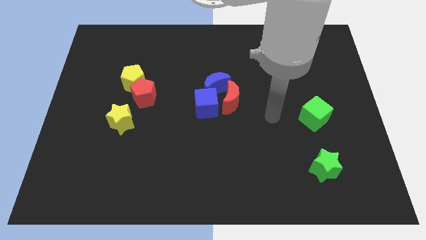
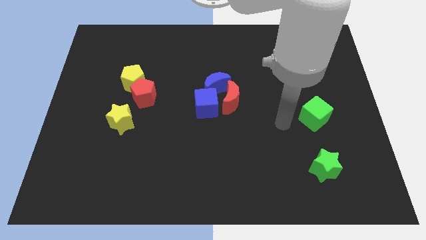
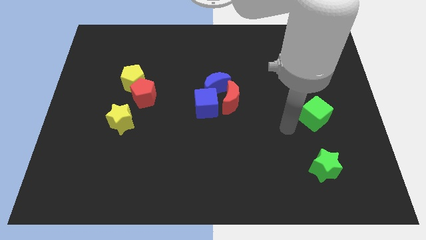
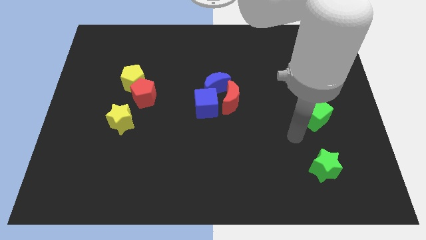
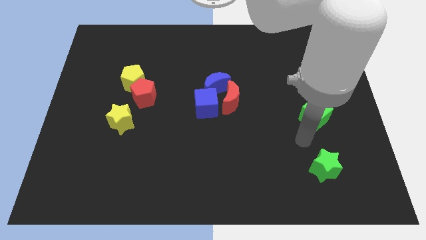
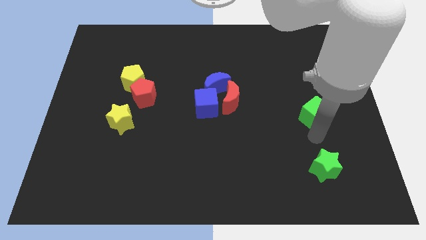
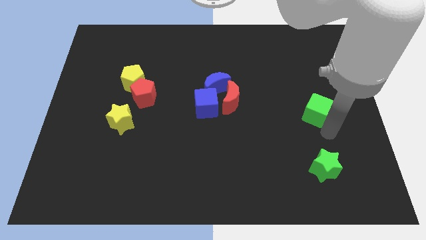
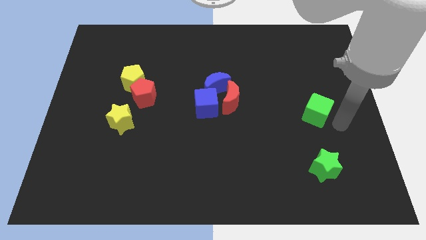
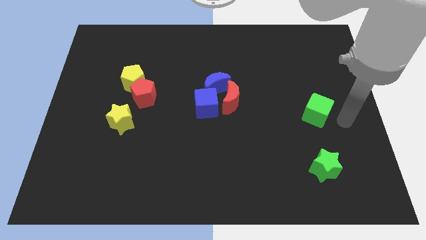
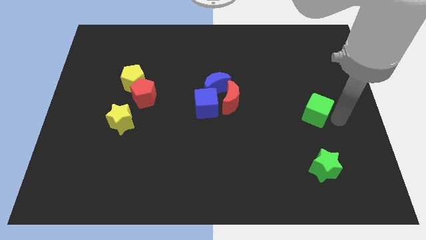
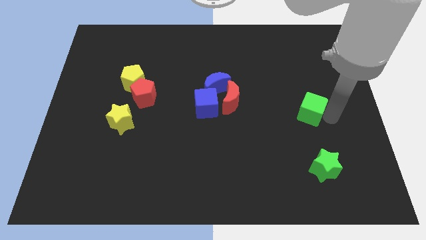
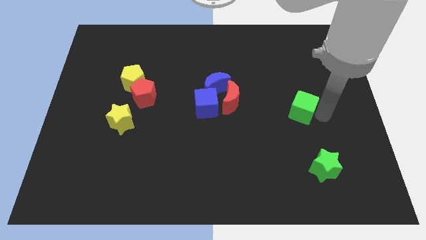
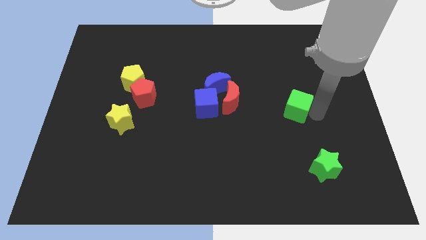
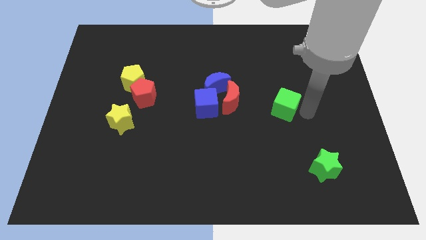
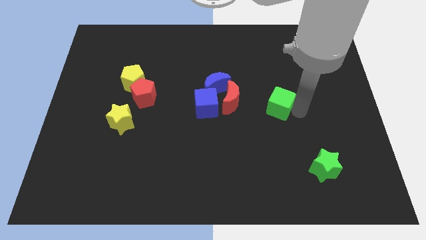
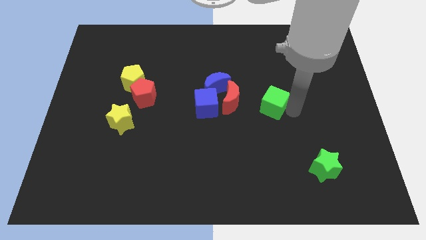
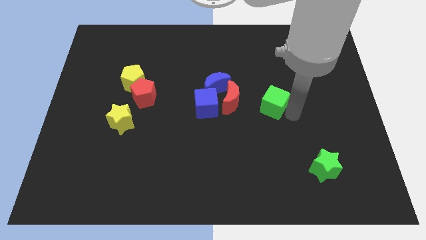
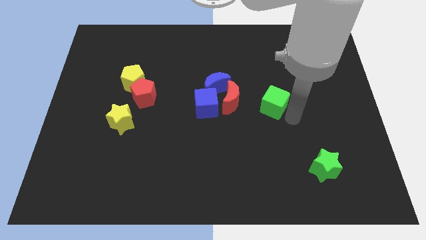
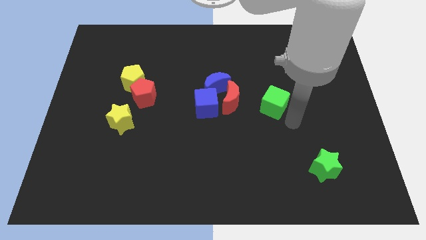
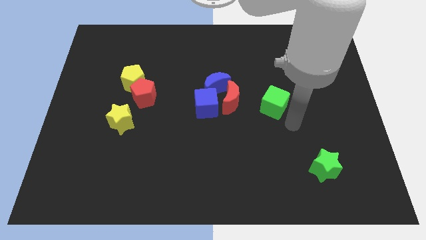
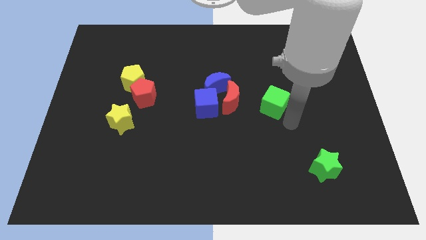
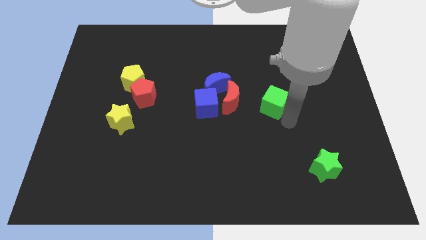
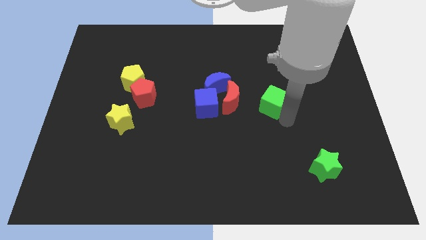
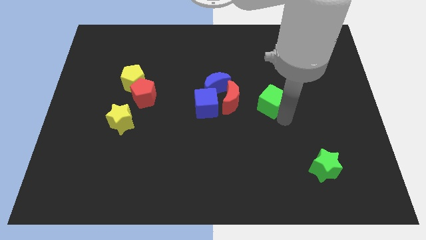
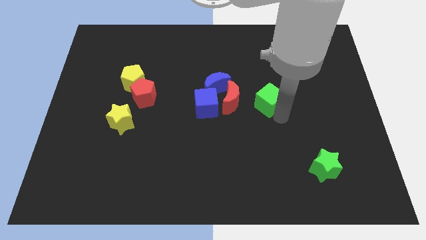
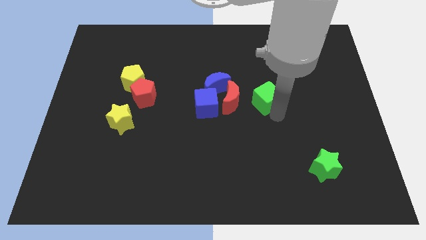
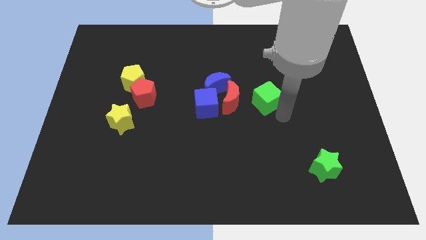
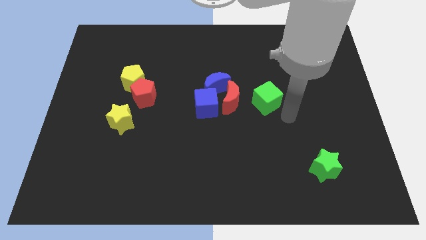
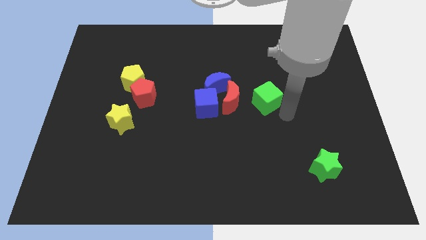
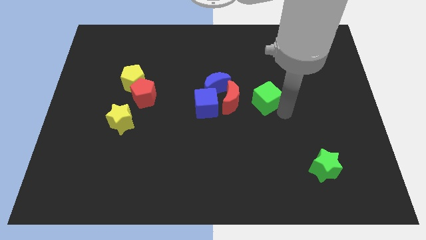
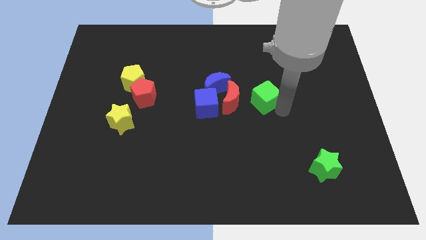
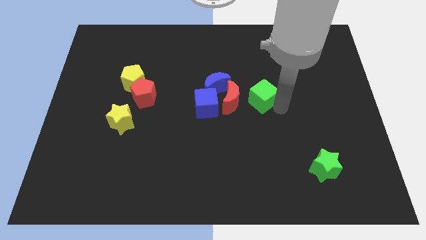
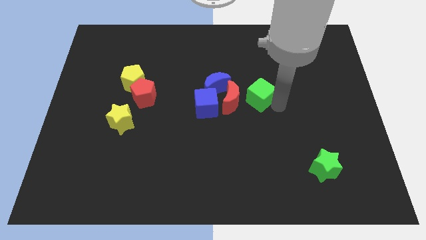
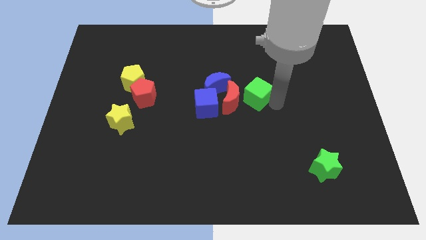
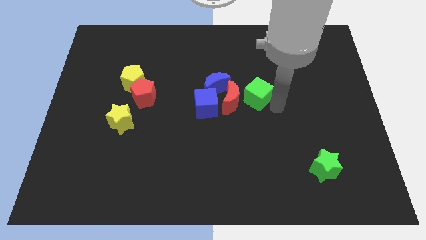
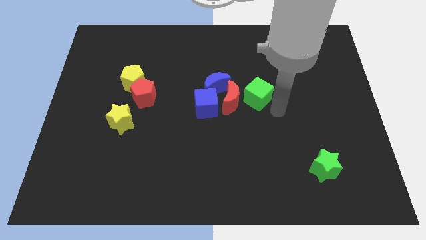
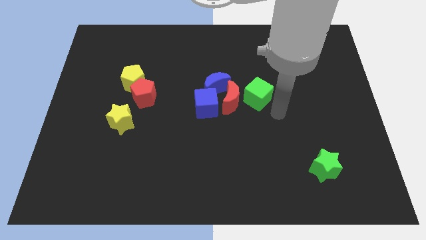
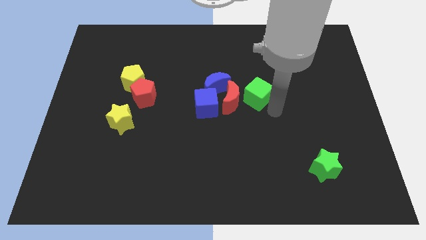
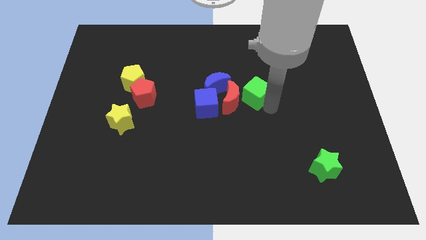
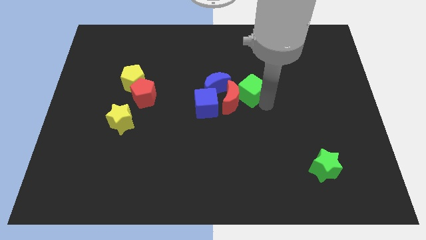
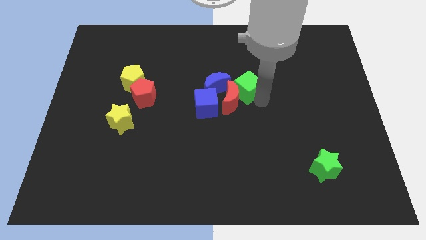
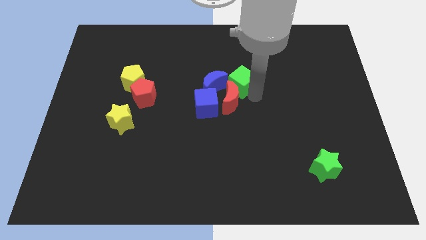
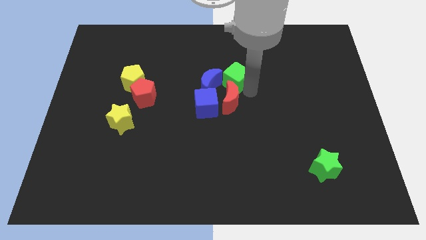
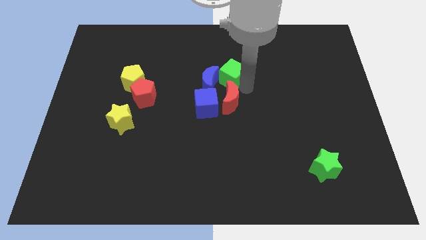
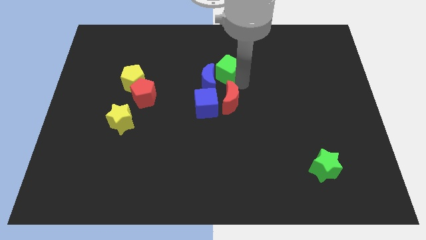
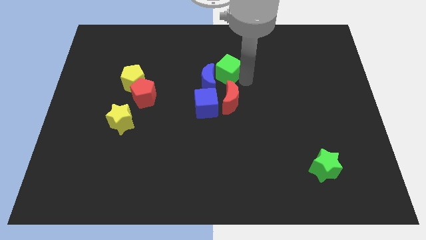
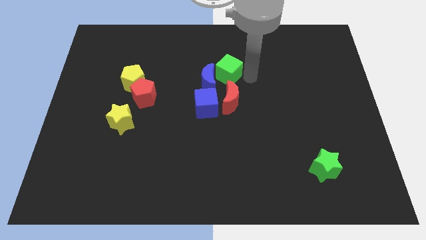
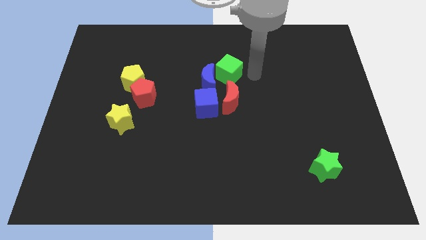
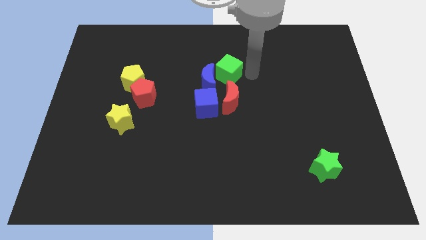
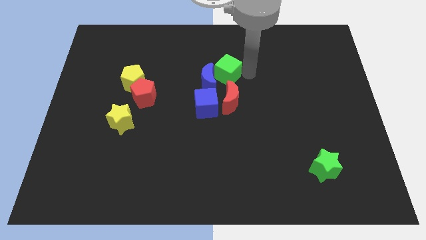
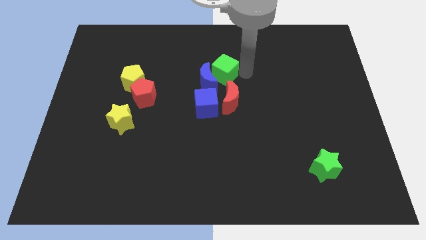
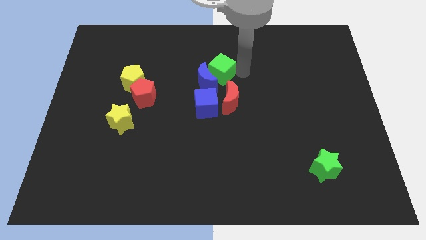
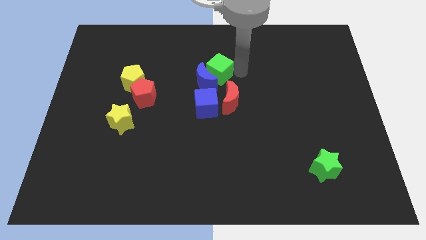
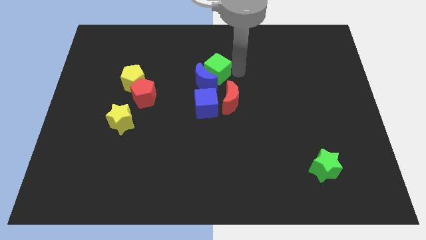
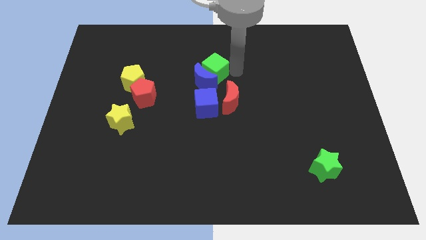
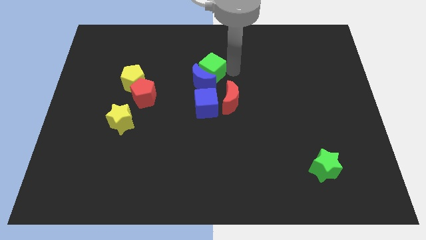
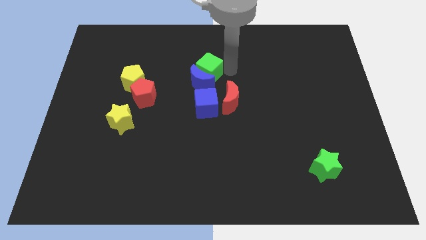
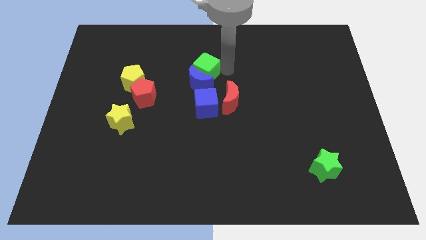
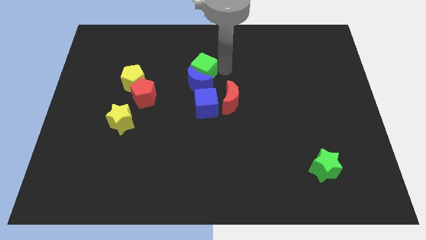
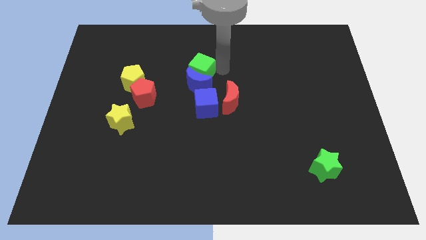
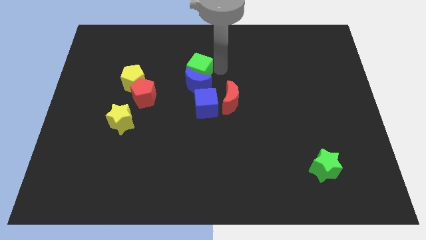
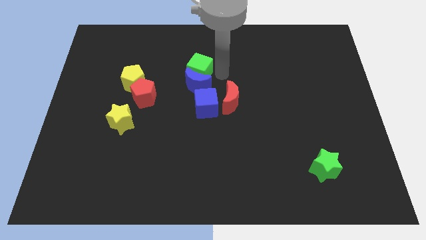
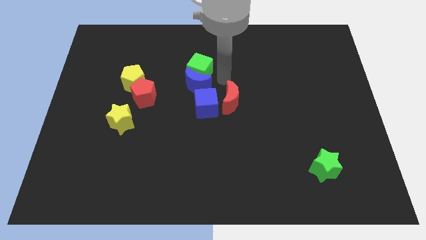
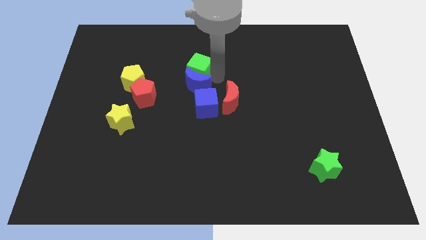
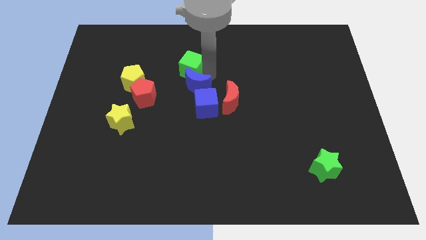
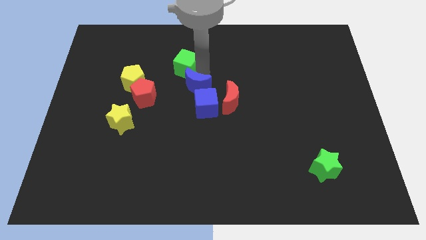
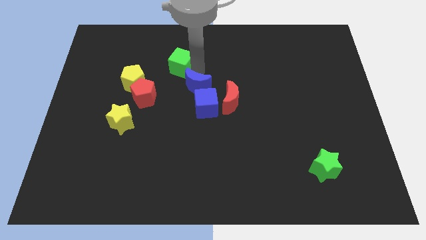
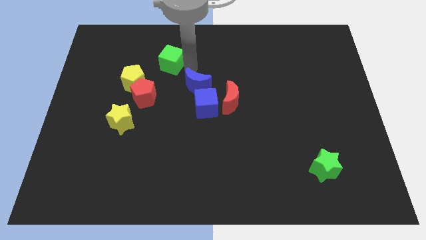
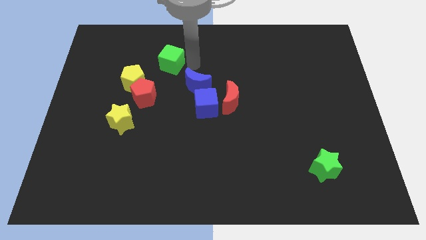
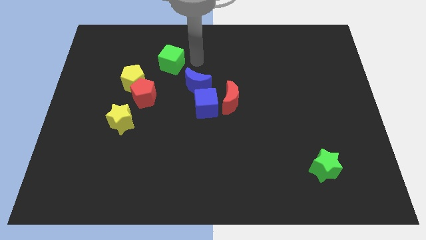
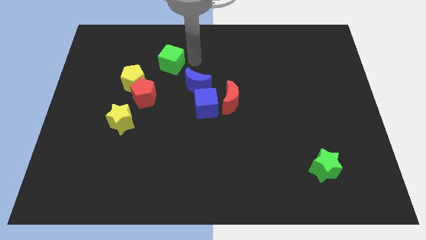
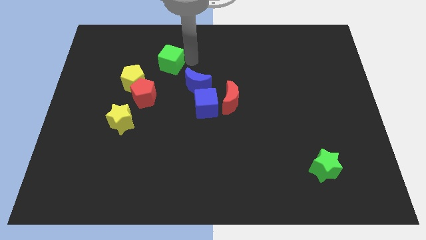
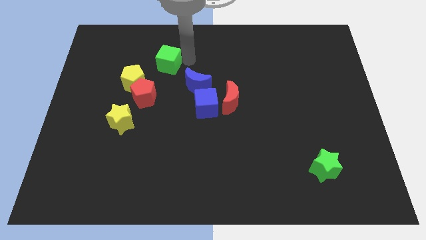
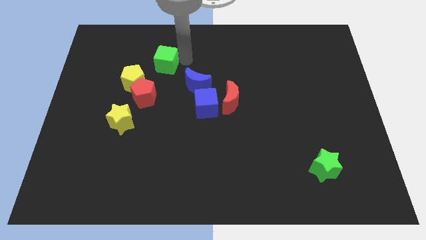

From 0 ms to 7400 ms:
put the green cube to the top of the red pentagon
